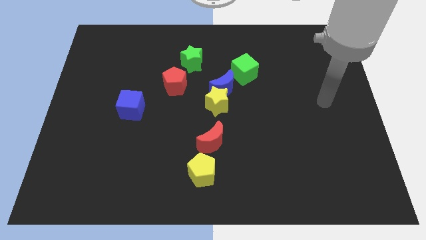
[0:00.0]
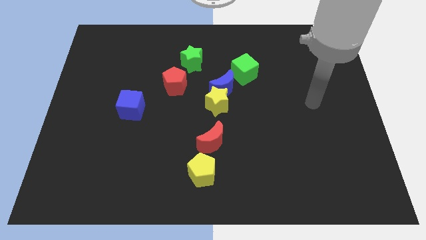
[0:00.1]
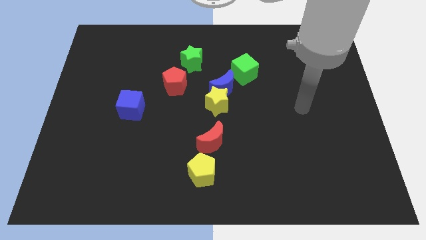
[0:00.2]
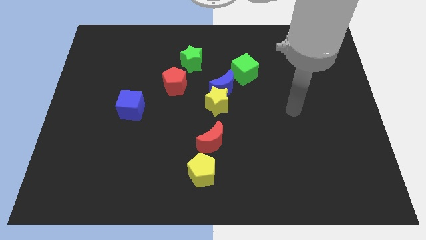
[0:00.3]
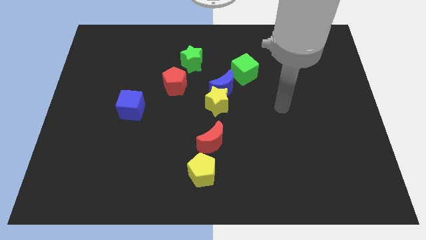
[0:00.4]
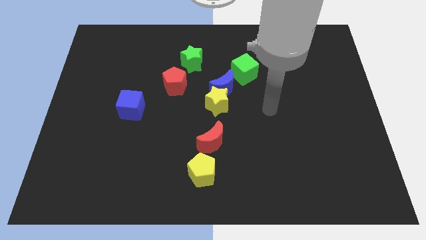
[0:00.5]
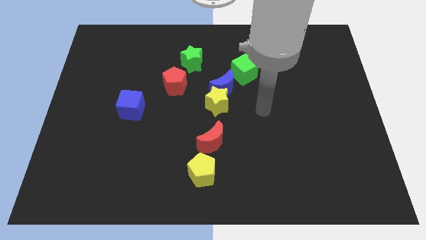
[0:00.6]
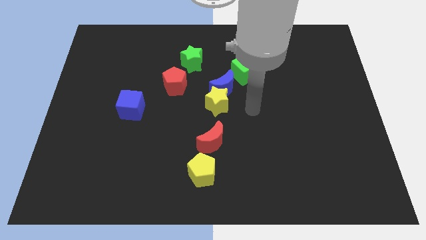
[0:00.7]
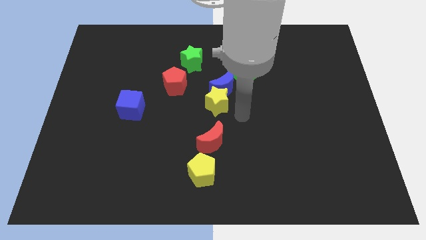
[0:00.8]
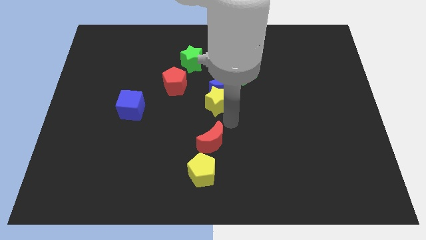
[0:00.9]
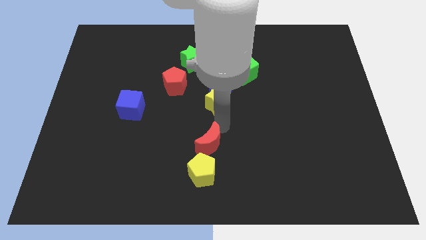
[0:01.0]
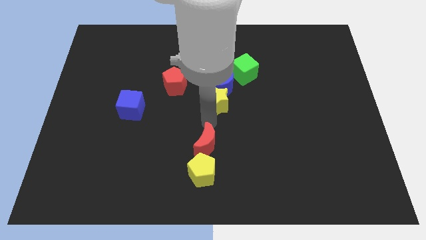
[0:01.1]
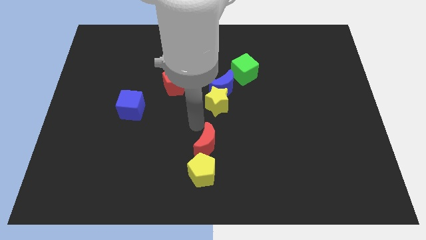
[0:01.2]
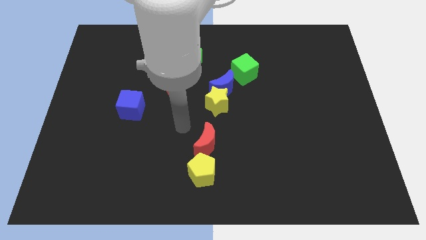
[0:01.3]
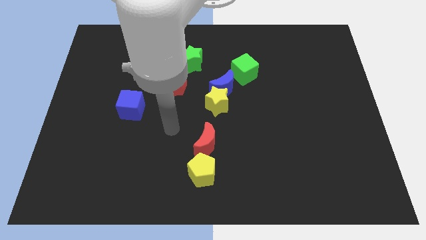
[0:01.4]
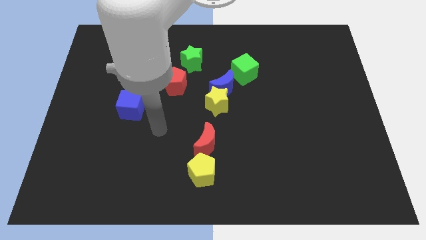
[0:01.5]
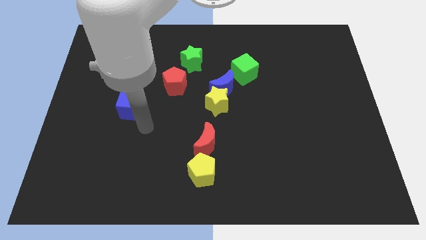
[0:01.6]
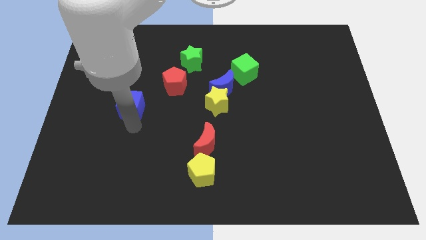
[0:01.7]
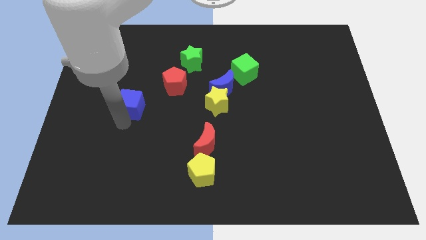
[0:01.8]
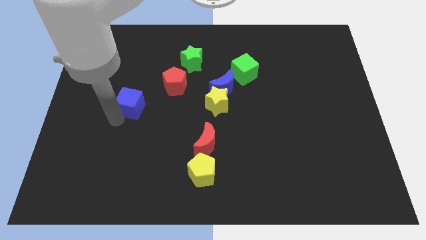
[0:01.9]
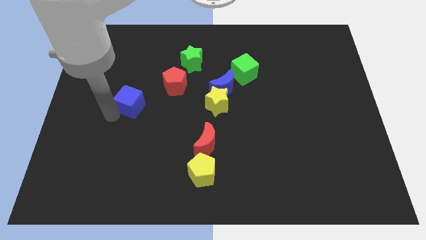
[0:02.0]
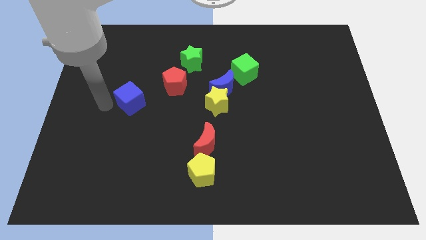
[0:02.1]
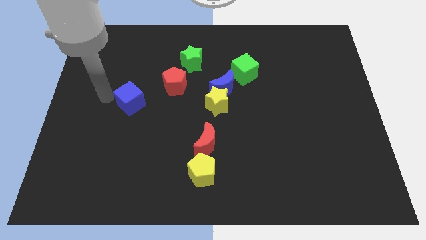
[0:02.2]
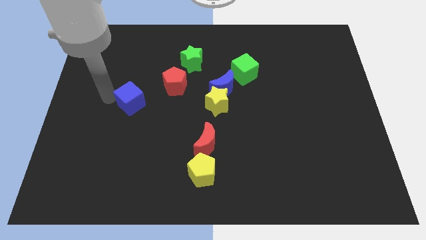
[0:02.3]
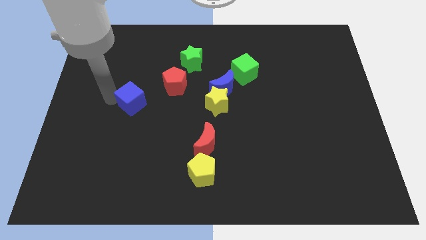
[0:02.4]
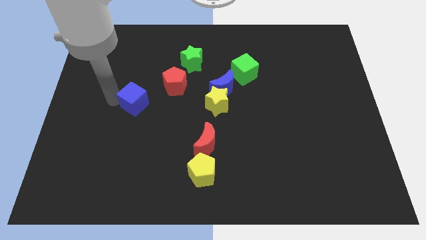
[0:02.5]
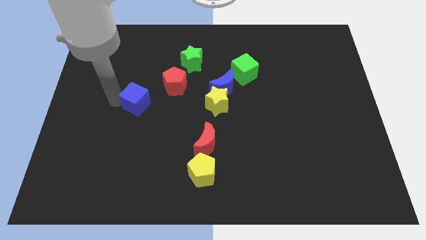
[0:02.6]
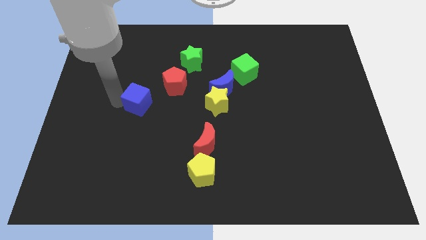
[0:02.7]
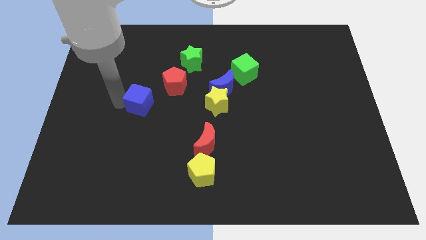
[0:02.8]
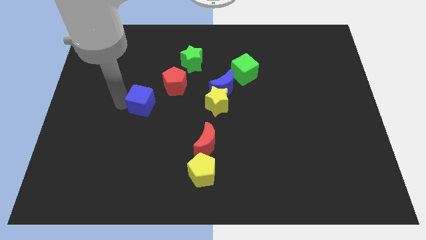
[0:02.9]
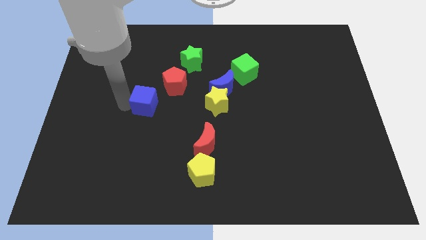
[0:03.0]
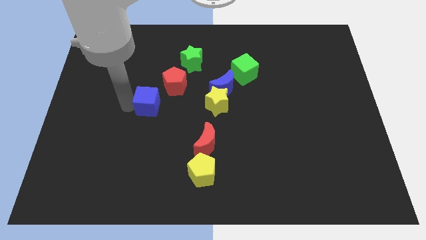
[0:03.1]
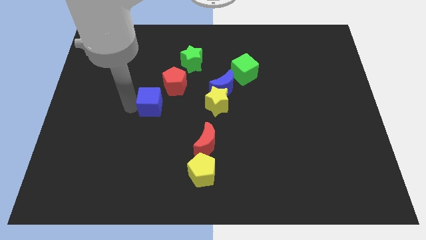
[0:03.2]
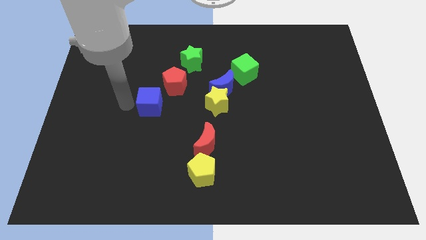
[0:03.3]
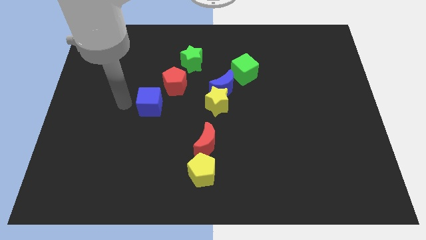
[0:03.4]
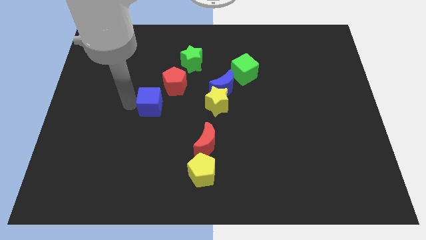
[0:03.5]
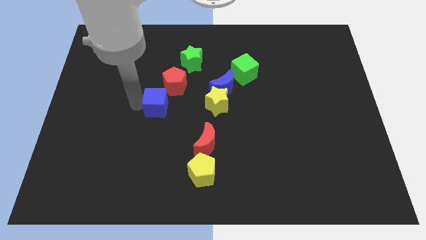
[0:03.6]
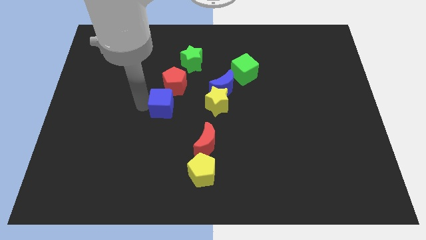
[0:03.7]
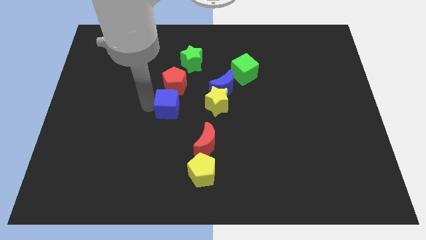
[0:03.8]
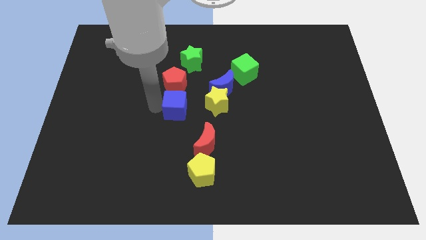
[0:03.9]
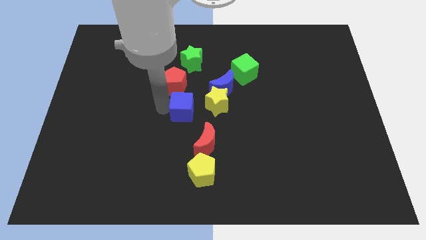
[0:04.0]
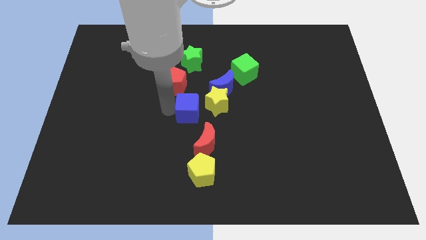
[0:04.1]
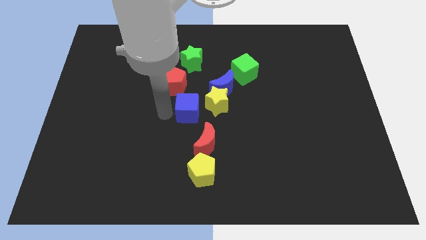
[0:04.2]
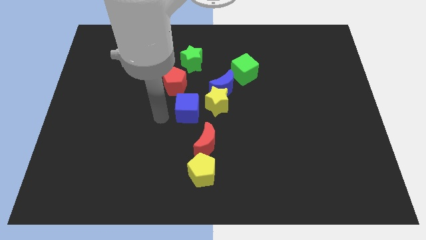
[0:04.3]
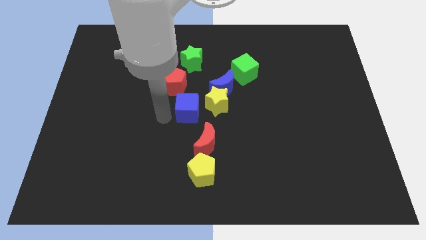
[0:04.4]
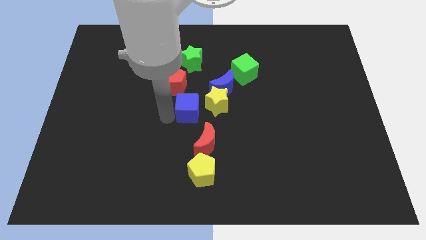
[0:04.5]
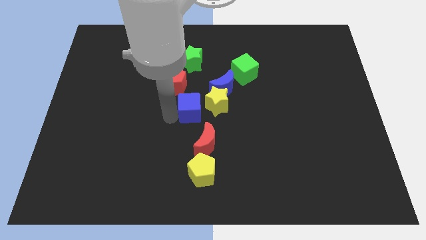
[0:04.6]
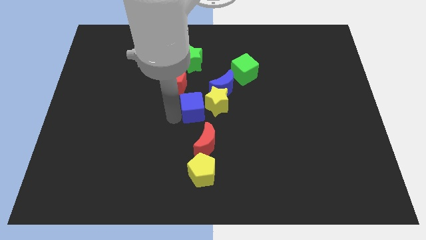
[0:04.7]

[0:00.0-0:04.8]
slide the blue cube to the yellow star

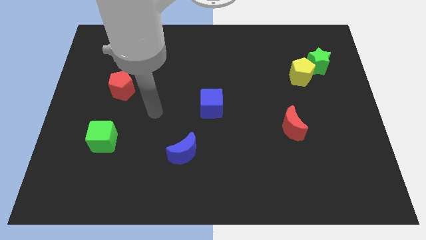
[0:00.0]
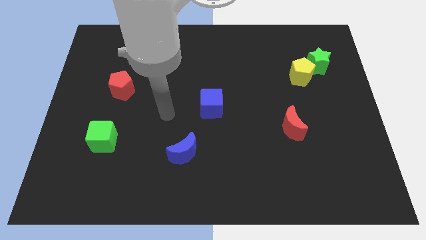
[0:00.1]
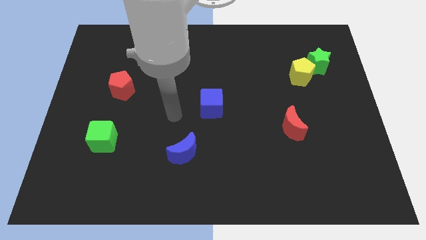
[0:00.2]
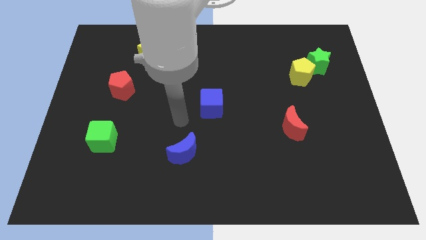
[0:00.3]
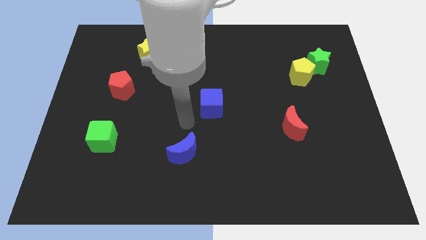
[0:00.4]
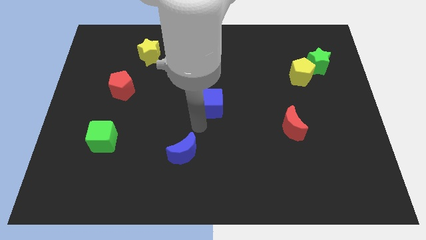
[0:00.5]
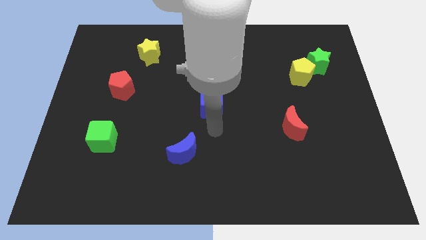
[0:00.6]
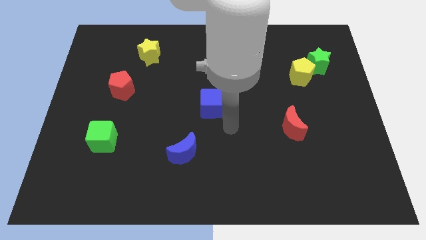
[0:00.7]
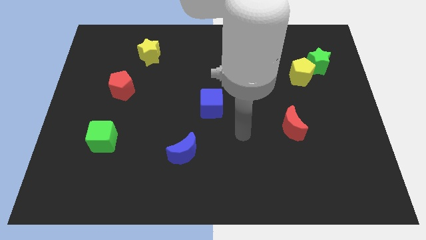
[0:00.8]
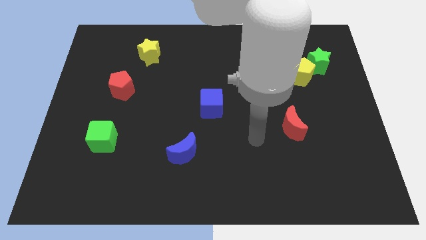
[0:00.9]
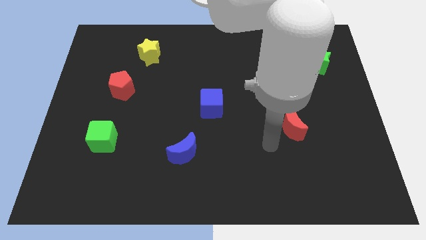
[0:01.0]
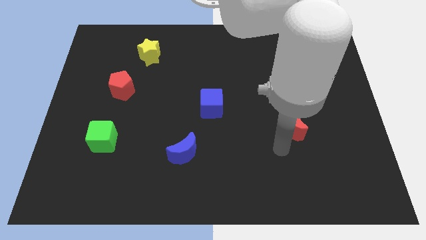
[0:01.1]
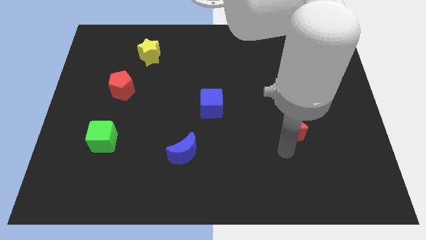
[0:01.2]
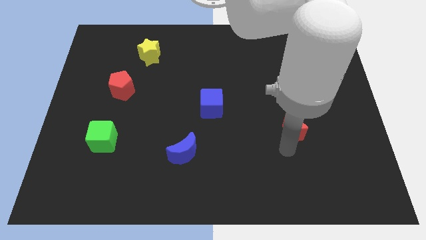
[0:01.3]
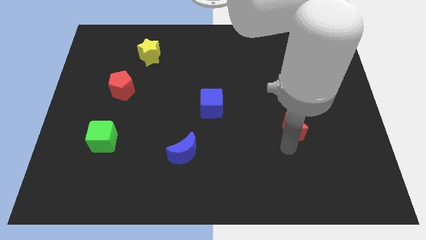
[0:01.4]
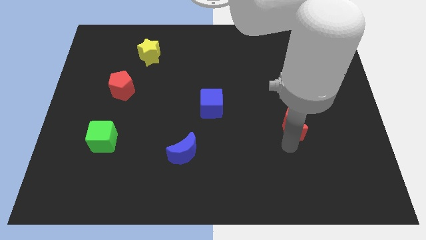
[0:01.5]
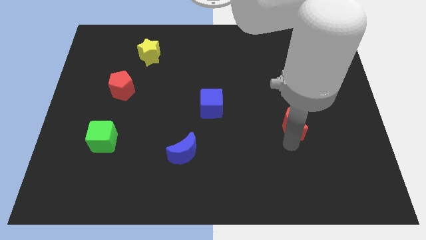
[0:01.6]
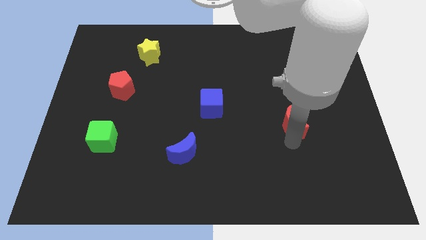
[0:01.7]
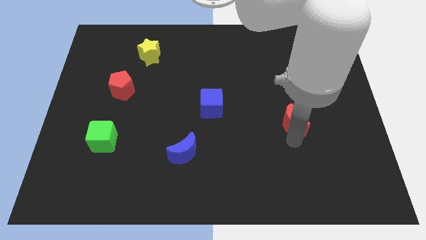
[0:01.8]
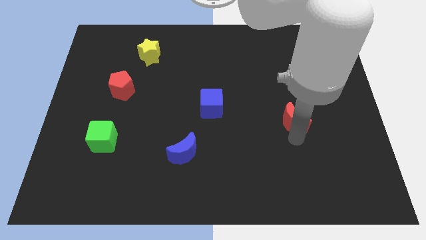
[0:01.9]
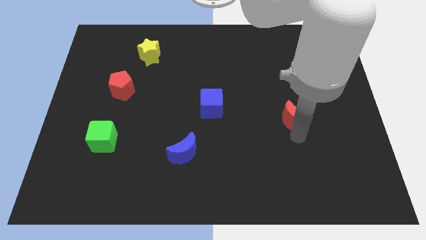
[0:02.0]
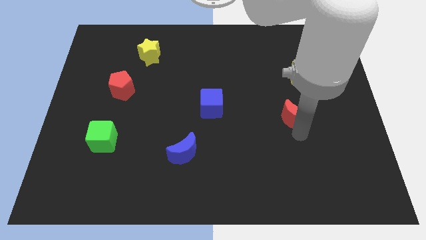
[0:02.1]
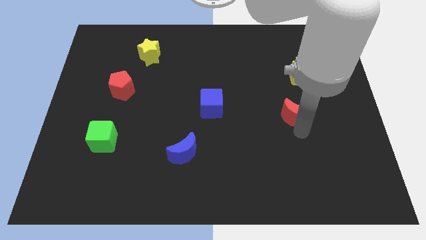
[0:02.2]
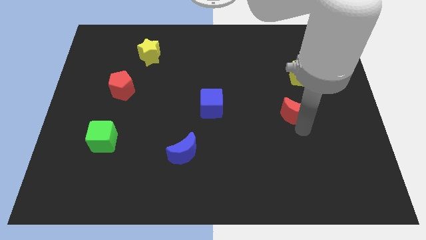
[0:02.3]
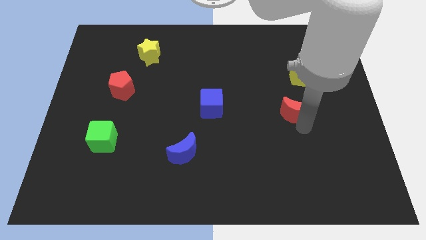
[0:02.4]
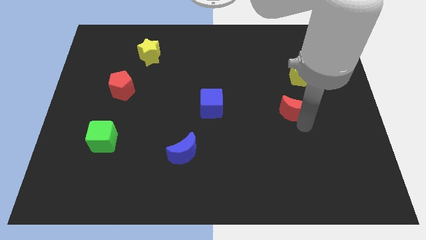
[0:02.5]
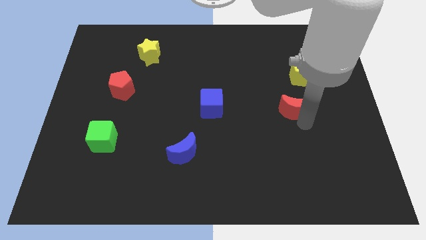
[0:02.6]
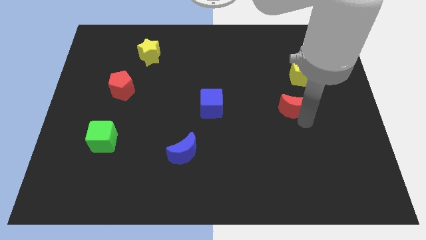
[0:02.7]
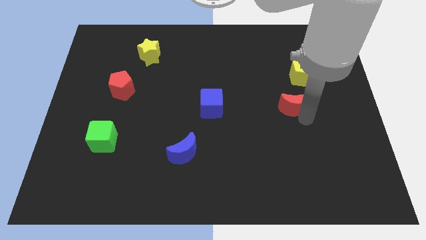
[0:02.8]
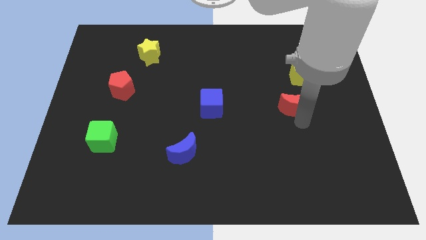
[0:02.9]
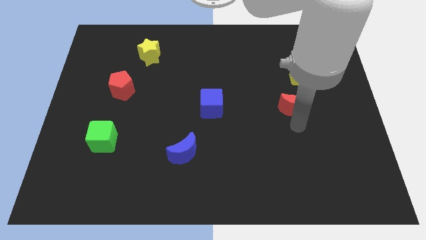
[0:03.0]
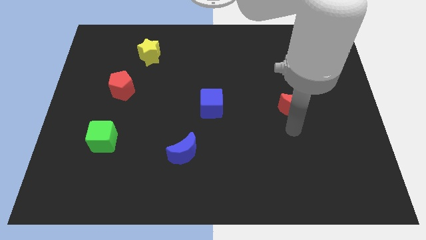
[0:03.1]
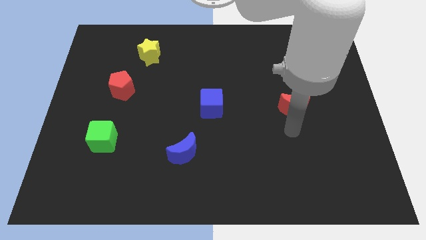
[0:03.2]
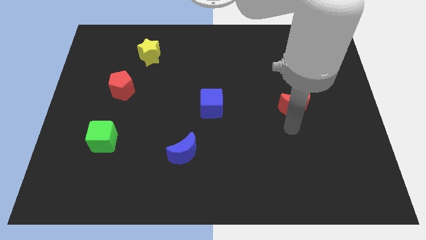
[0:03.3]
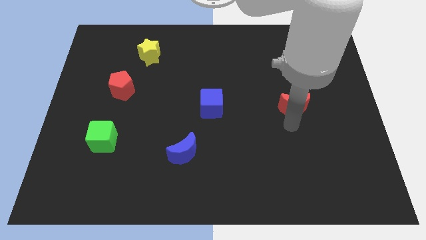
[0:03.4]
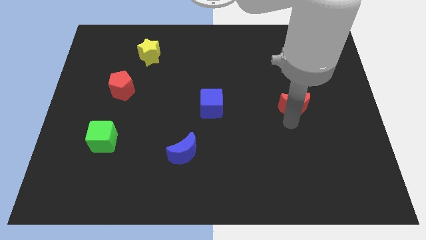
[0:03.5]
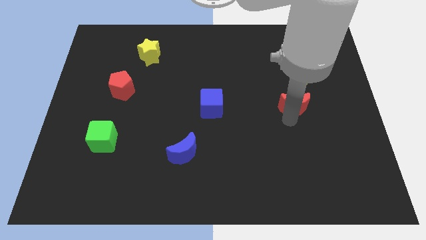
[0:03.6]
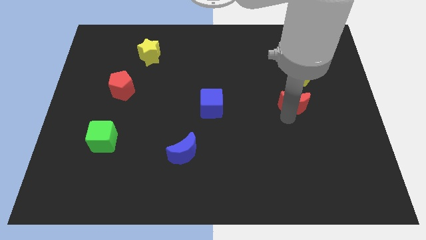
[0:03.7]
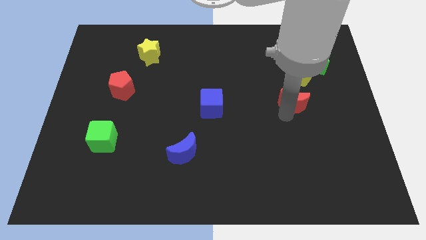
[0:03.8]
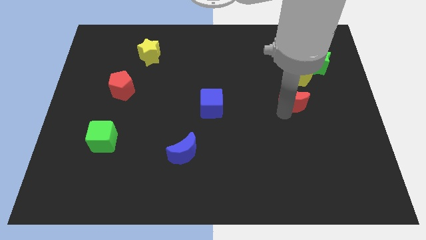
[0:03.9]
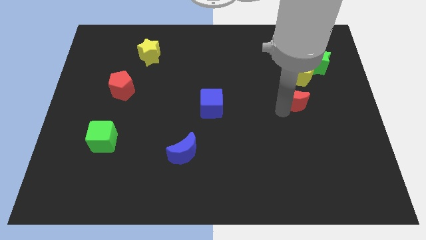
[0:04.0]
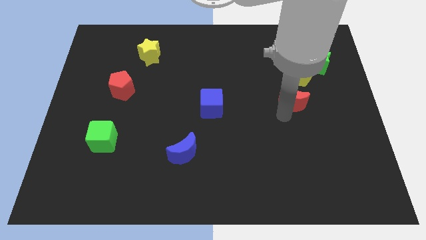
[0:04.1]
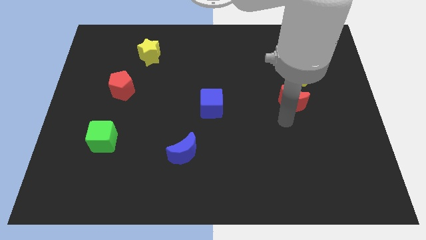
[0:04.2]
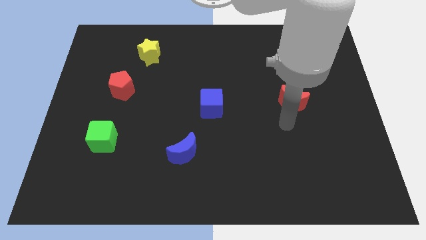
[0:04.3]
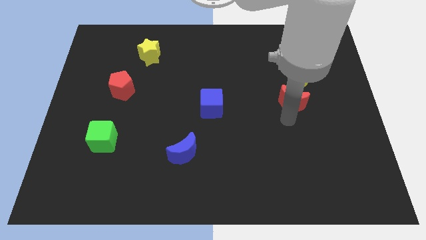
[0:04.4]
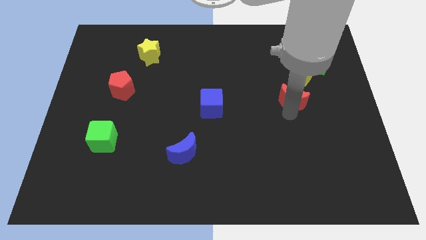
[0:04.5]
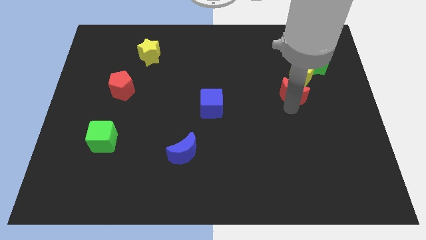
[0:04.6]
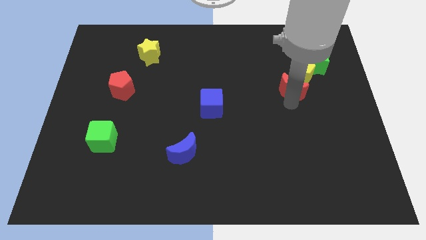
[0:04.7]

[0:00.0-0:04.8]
push the red moon towards the yellow pentagon
